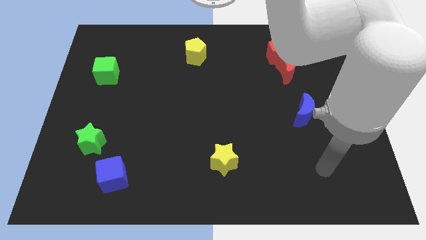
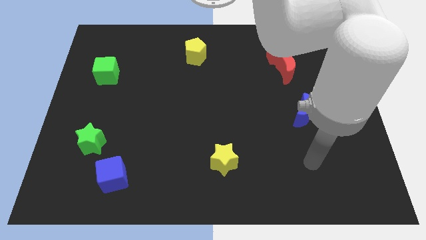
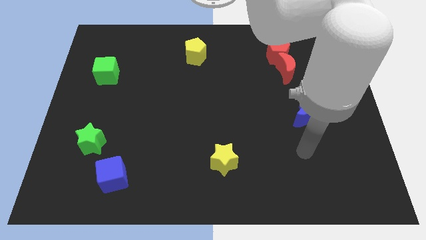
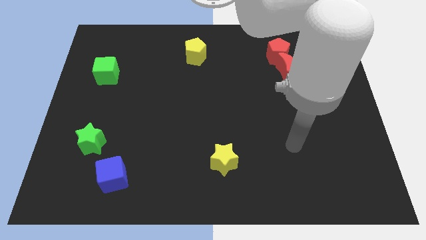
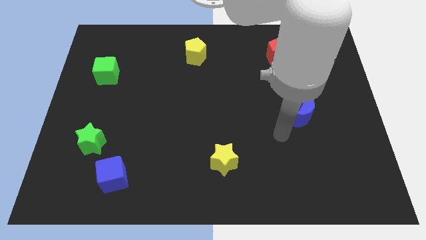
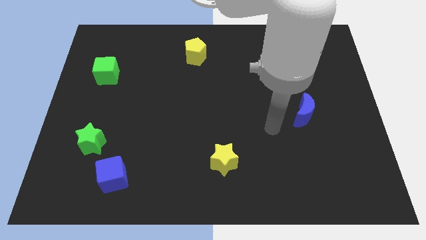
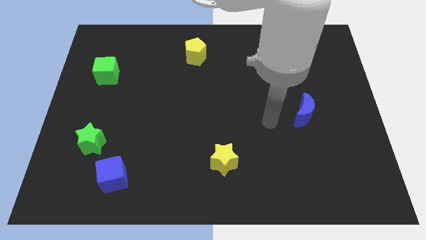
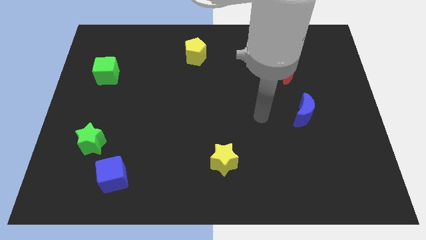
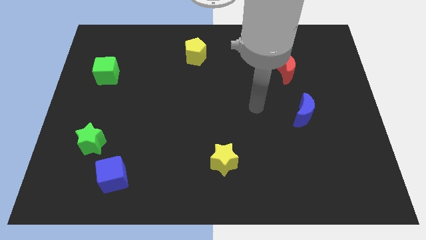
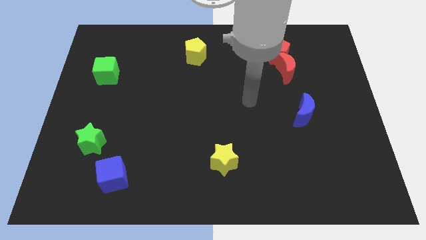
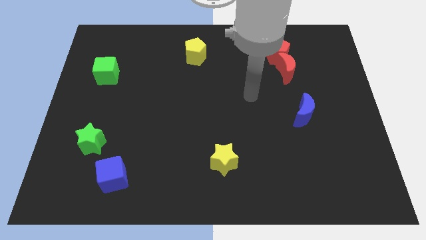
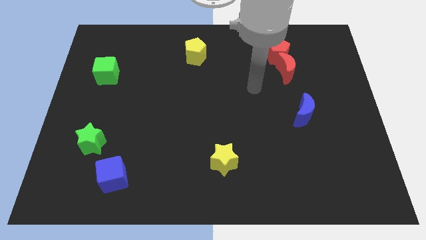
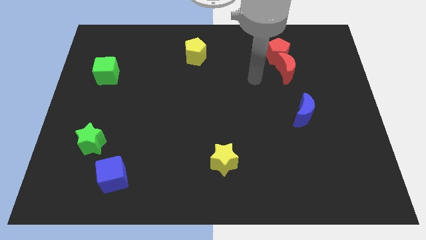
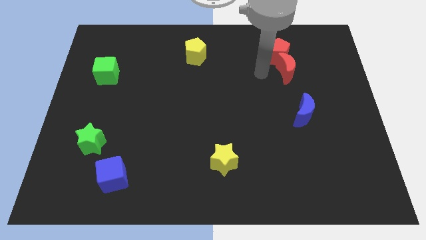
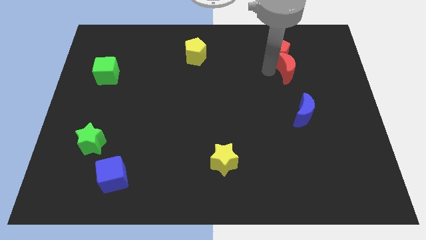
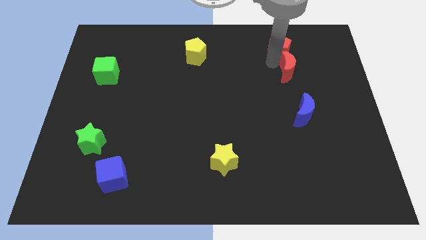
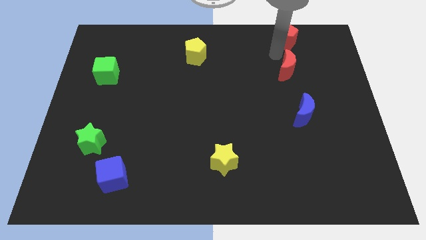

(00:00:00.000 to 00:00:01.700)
pull the red moon apart from the red pentagon

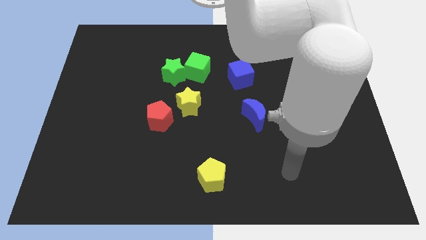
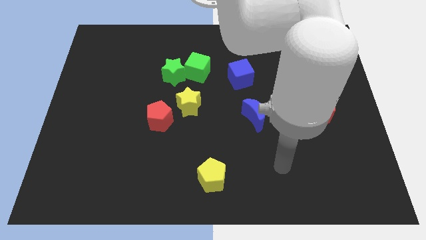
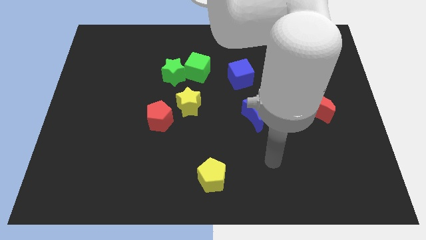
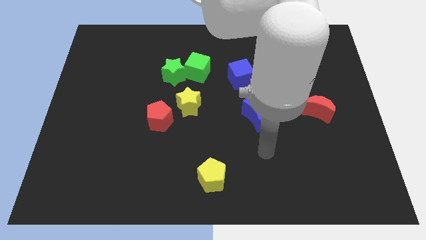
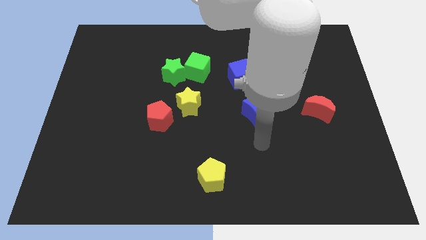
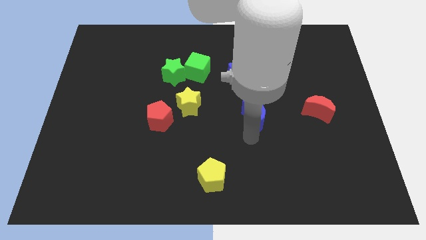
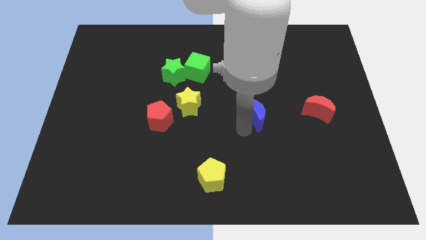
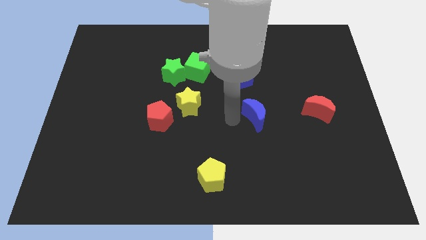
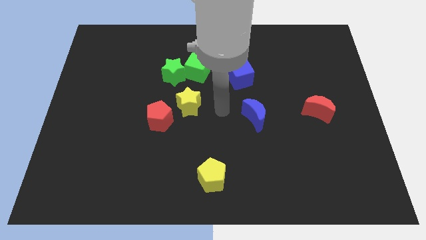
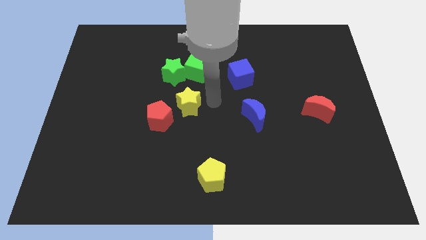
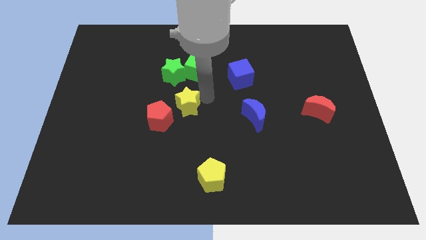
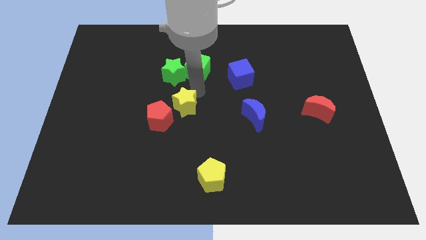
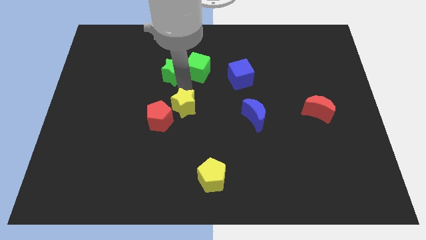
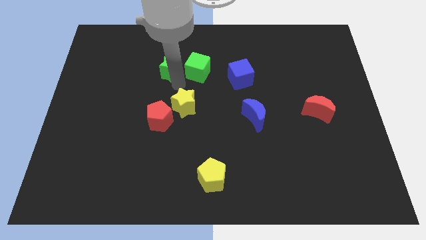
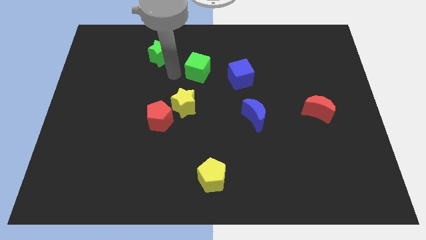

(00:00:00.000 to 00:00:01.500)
separate the green cube from the green star

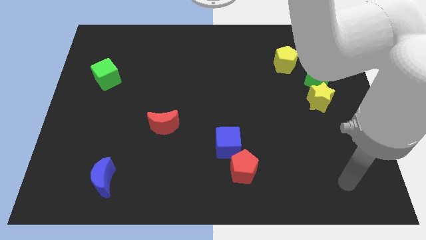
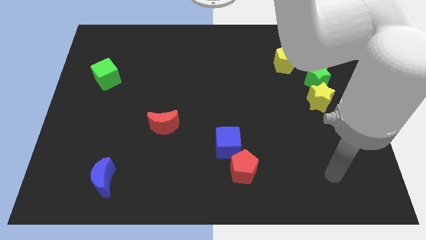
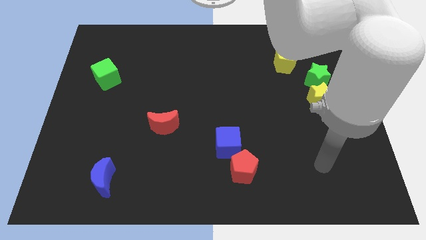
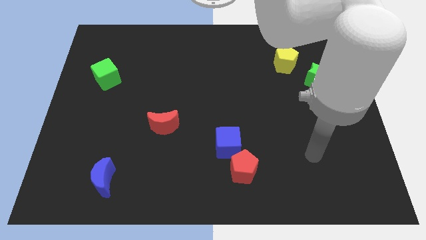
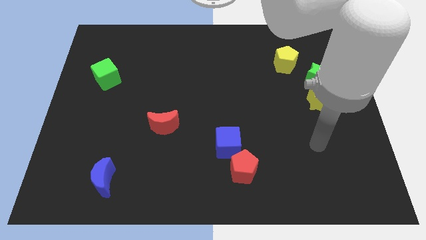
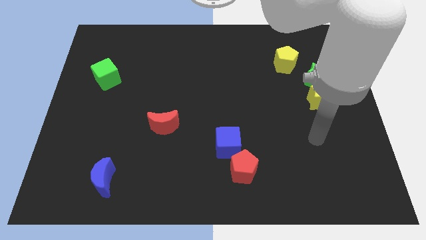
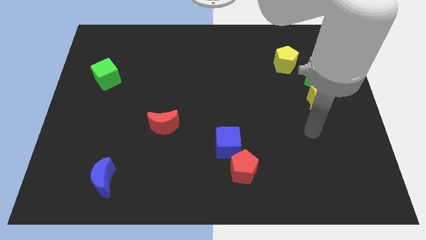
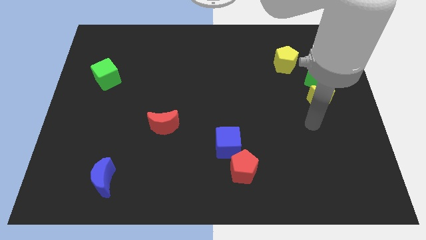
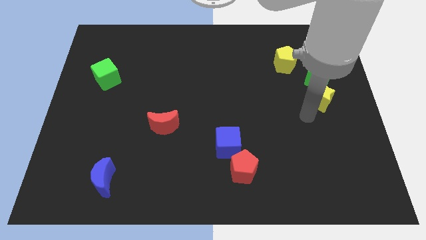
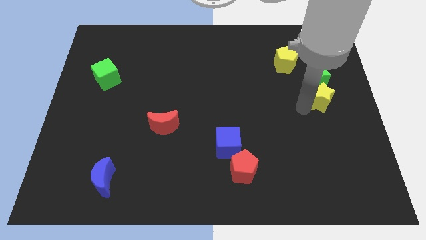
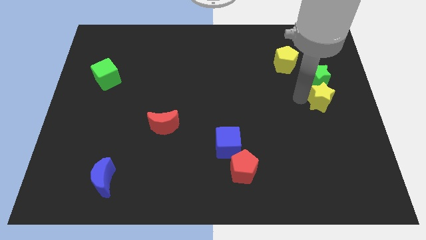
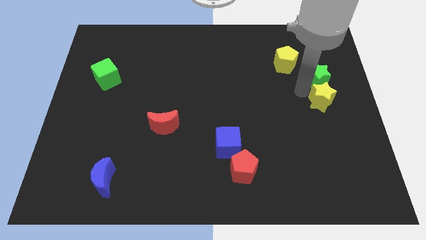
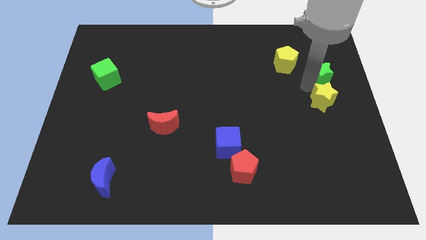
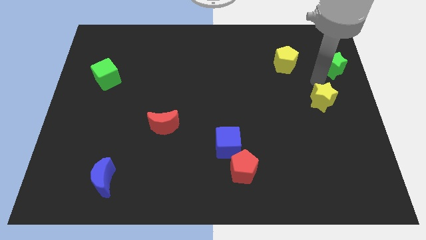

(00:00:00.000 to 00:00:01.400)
separate the yellow star from the green star

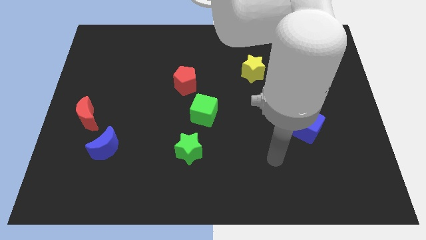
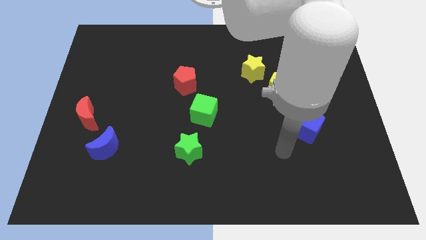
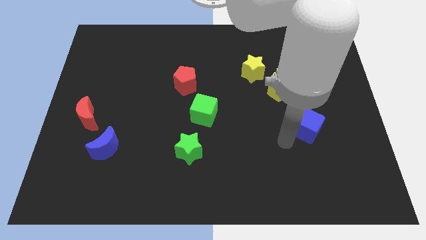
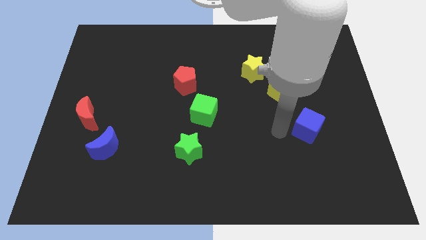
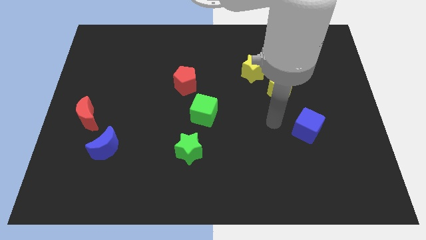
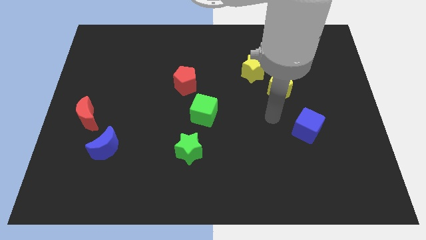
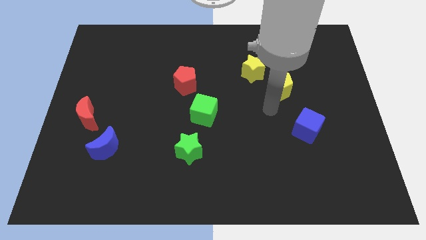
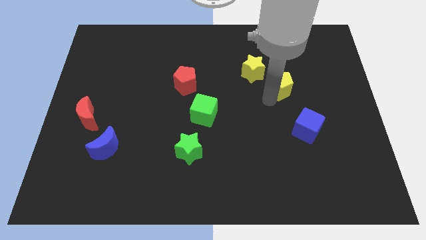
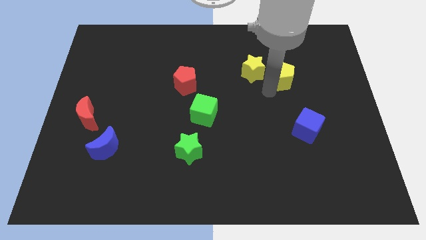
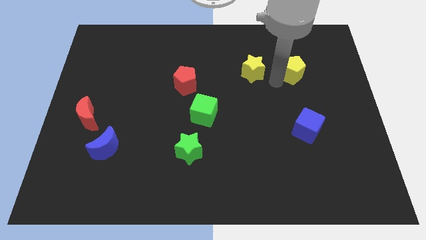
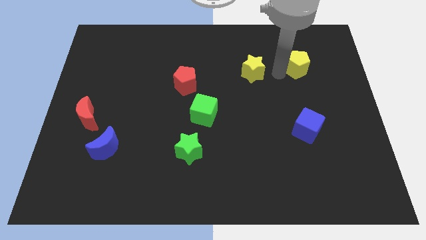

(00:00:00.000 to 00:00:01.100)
pull the yellow star apart from the yellow pentagon

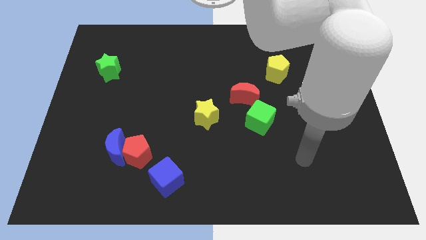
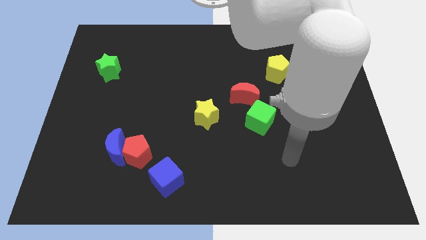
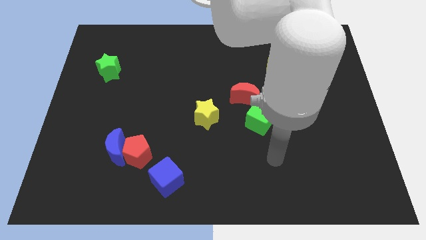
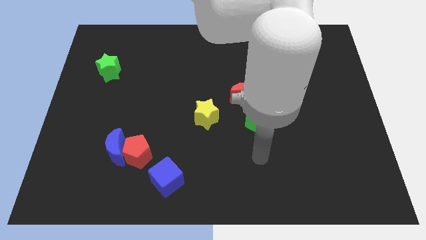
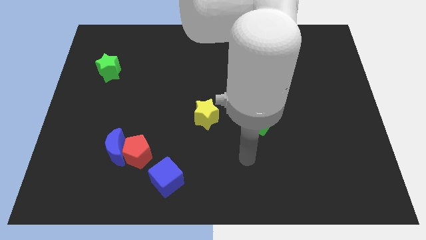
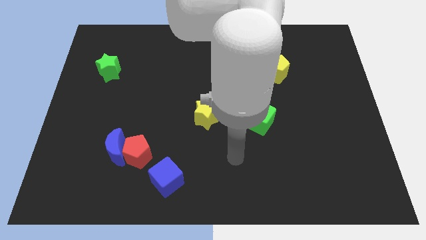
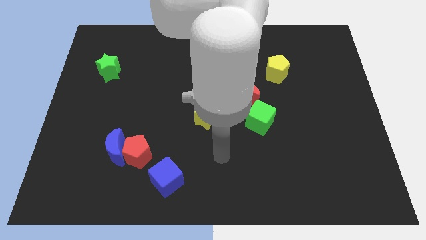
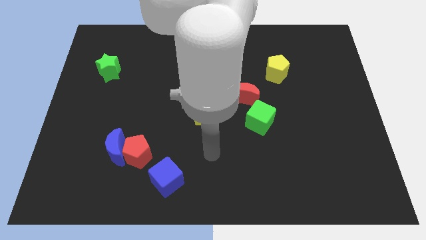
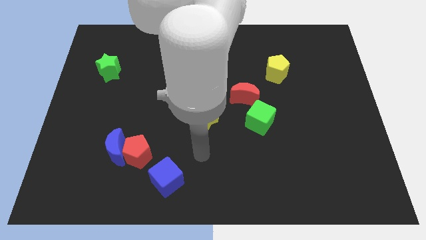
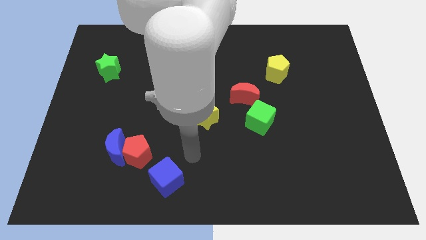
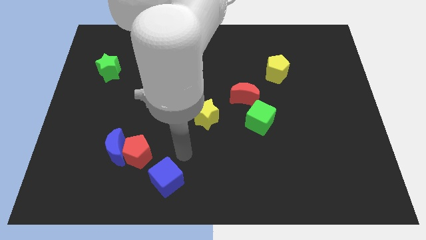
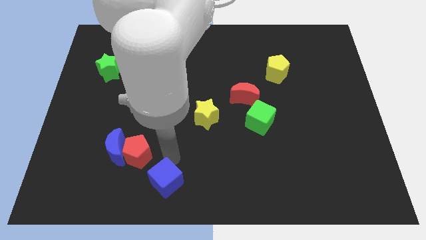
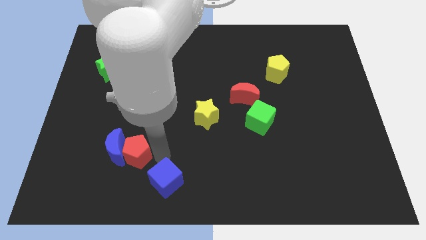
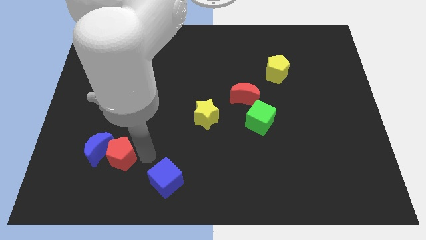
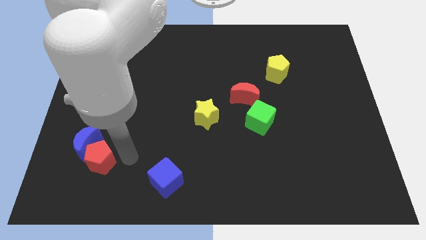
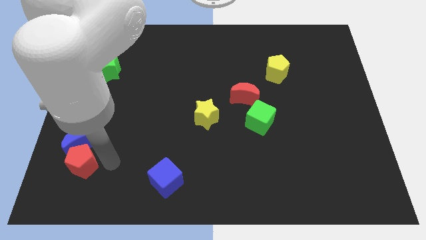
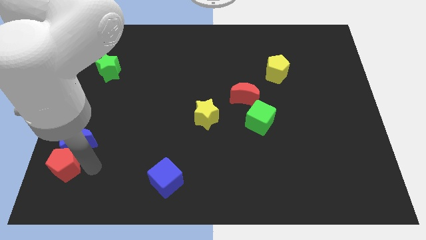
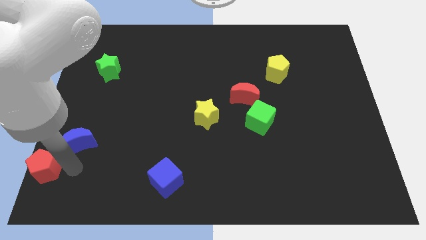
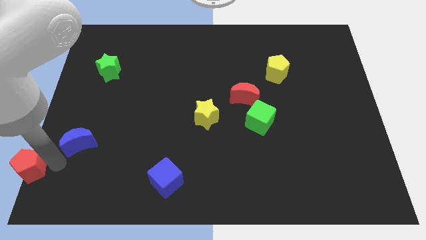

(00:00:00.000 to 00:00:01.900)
separate the blue moon from the red pentagon

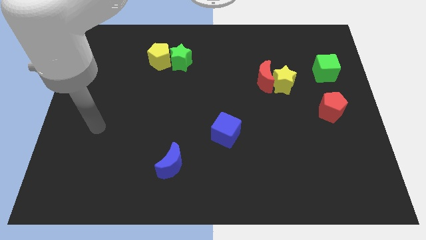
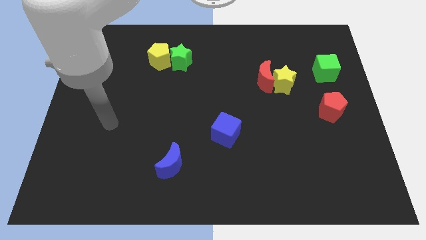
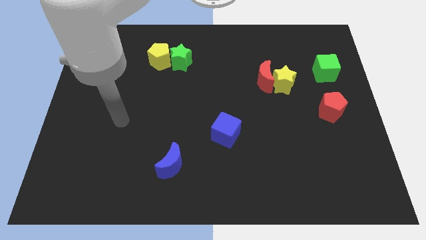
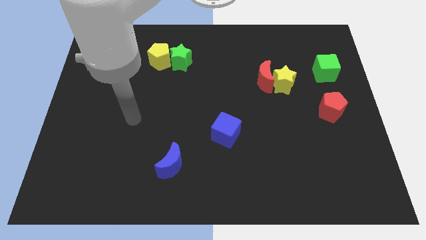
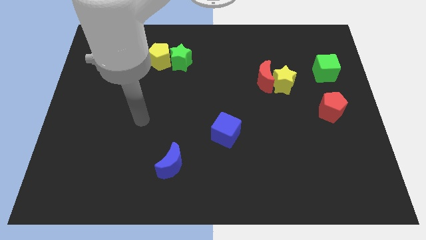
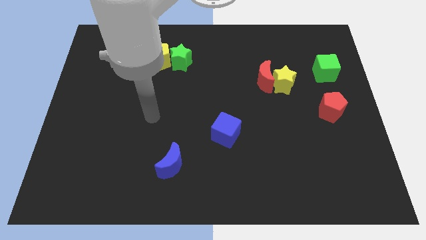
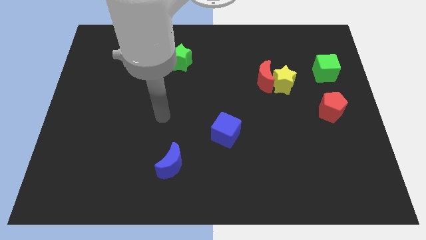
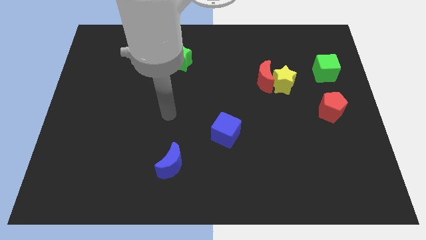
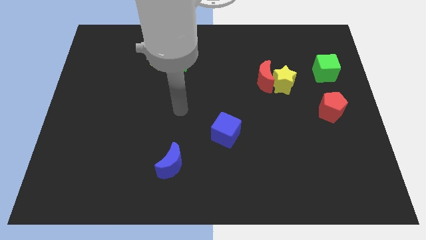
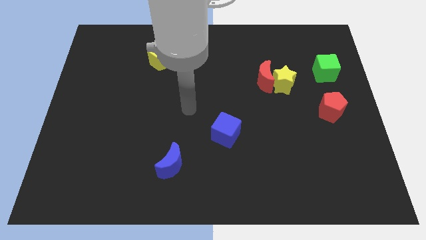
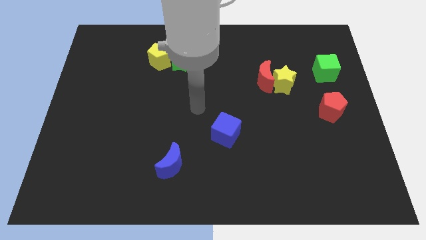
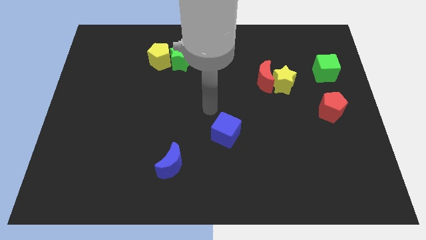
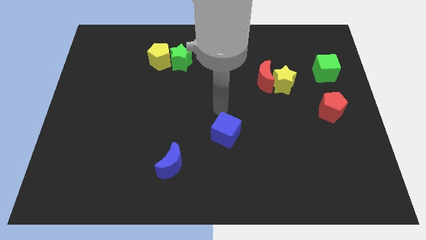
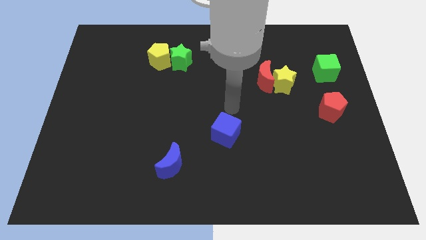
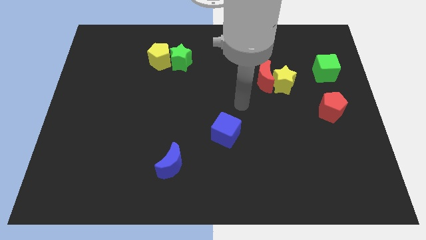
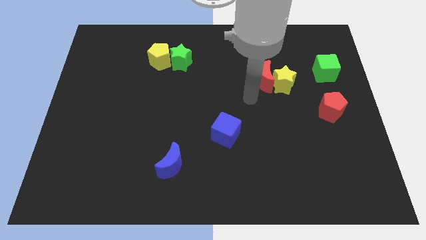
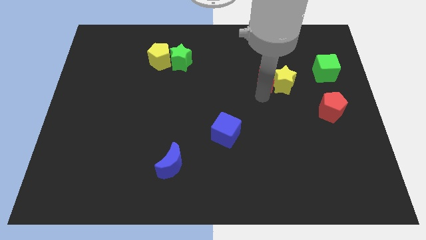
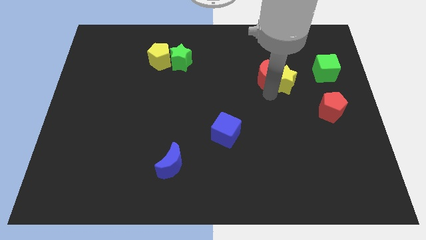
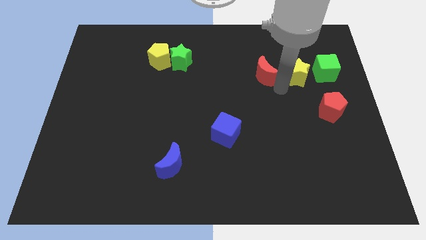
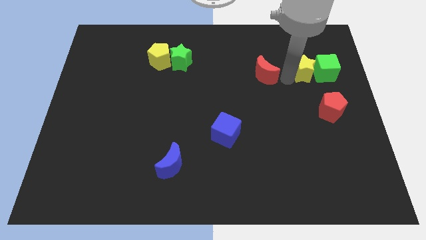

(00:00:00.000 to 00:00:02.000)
separate the red moon from the yellow star
